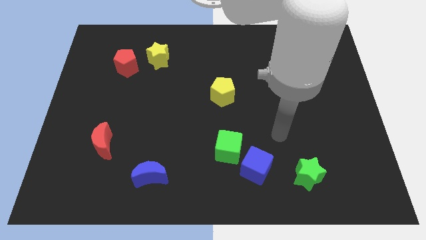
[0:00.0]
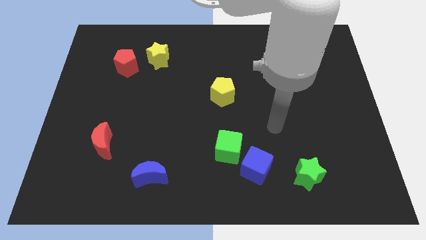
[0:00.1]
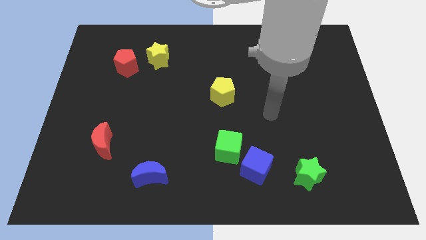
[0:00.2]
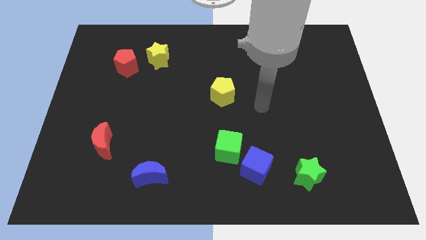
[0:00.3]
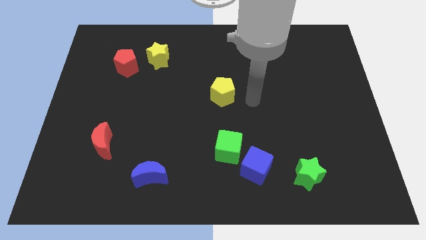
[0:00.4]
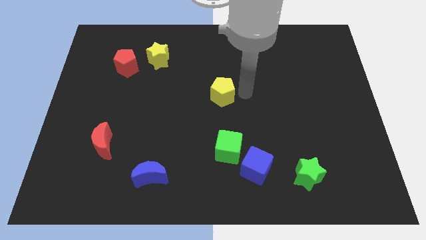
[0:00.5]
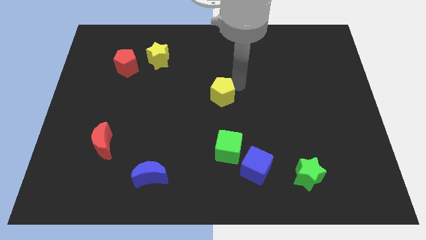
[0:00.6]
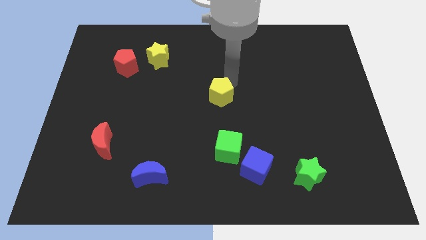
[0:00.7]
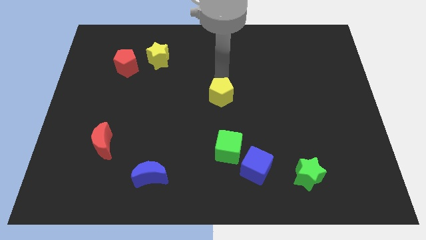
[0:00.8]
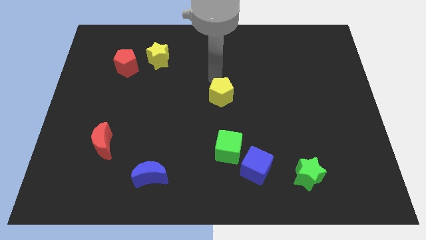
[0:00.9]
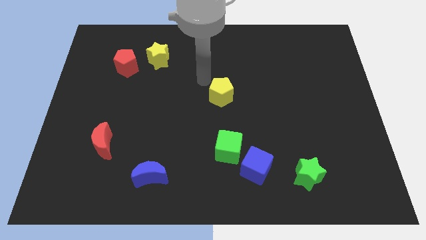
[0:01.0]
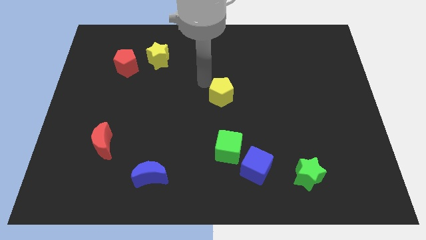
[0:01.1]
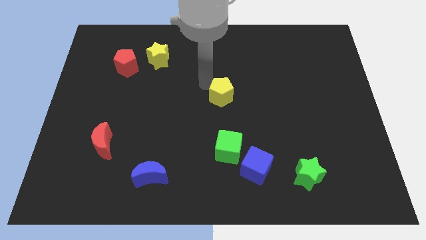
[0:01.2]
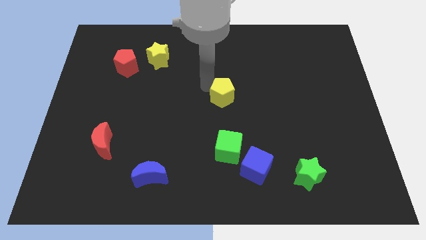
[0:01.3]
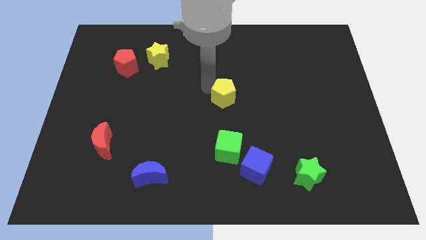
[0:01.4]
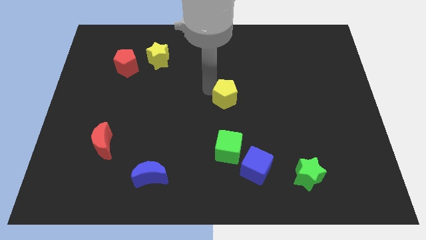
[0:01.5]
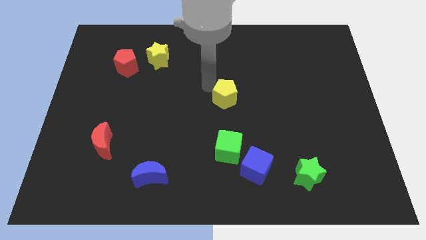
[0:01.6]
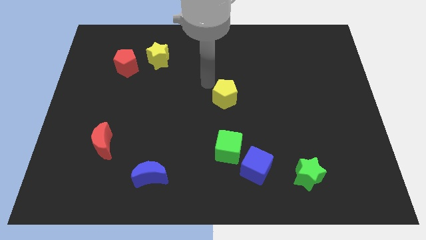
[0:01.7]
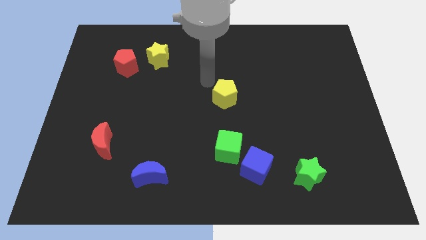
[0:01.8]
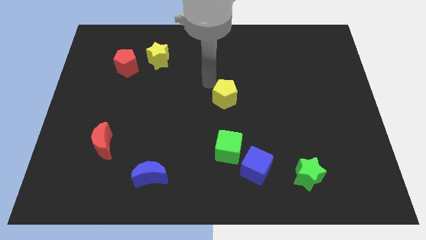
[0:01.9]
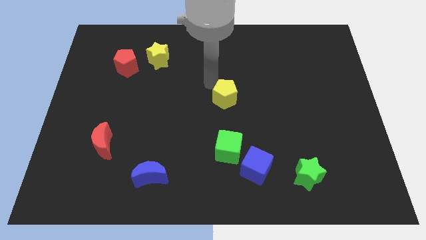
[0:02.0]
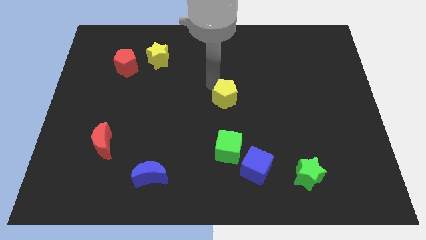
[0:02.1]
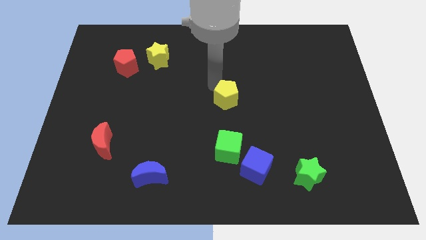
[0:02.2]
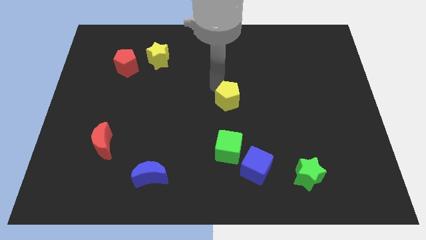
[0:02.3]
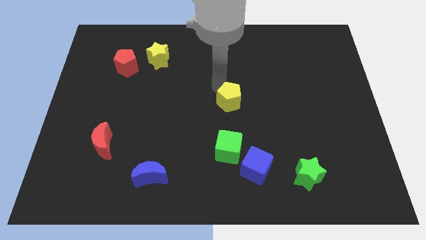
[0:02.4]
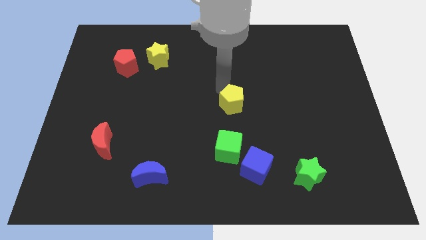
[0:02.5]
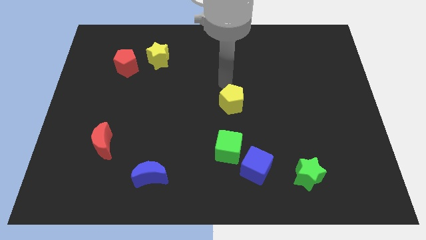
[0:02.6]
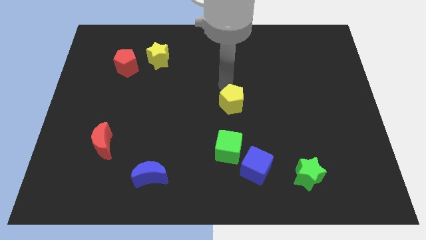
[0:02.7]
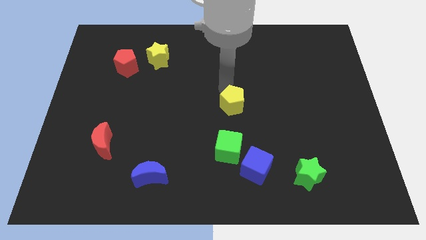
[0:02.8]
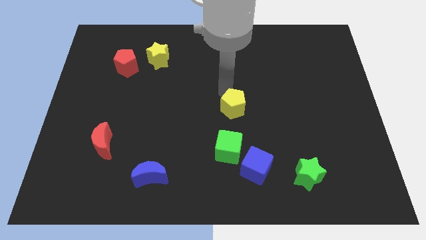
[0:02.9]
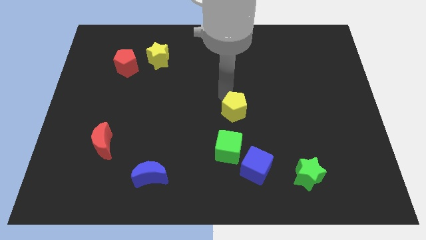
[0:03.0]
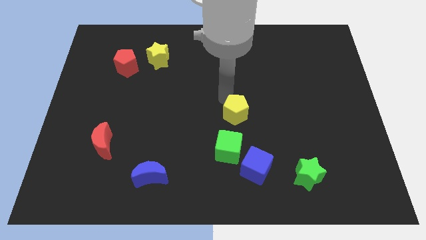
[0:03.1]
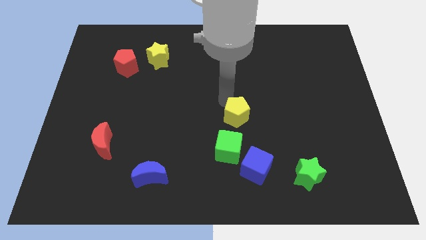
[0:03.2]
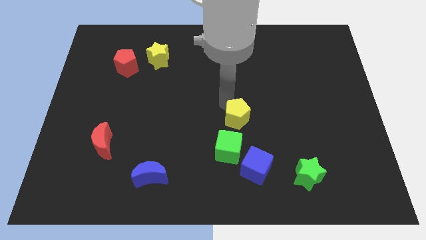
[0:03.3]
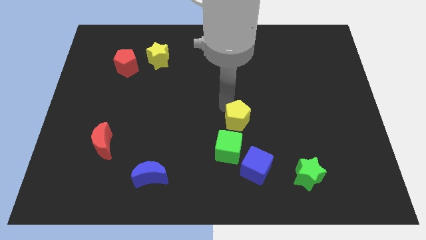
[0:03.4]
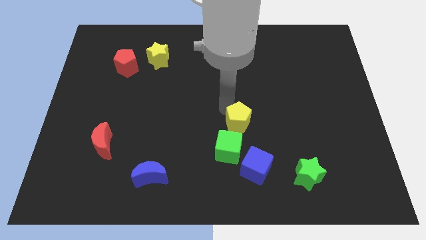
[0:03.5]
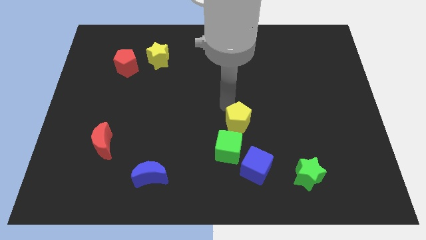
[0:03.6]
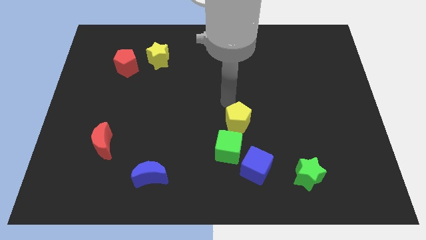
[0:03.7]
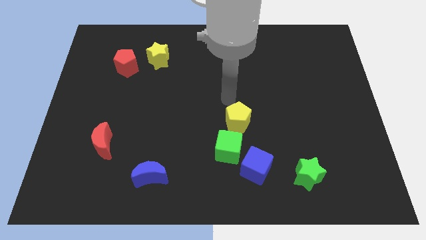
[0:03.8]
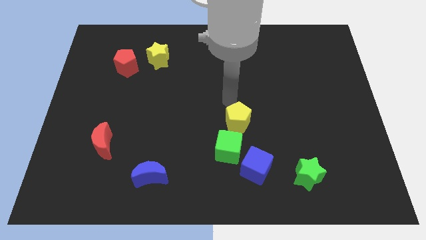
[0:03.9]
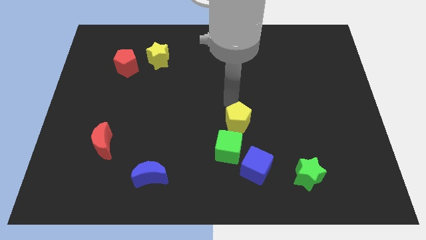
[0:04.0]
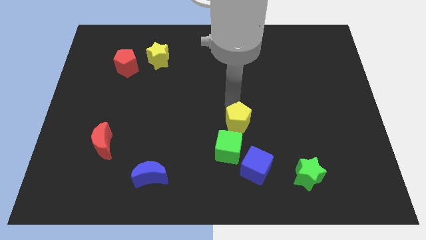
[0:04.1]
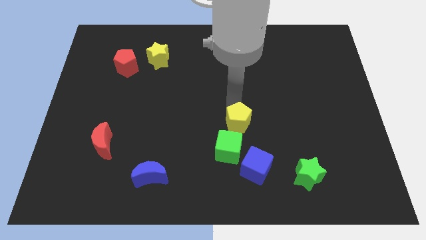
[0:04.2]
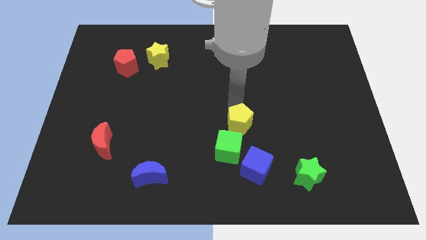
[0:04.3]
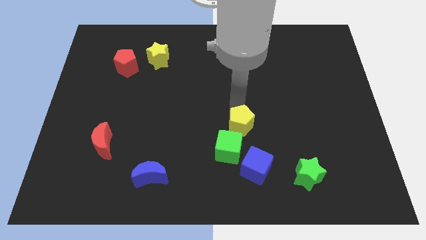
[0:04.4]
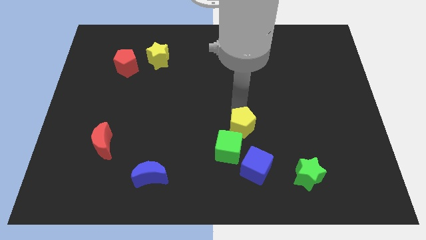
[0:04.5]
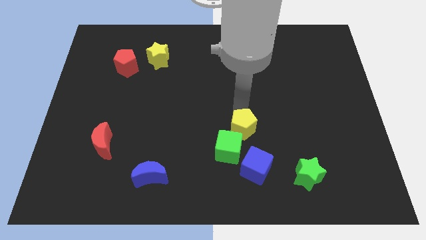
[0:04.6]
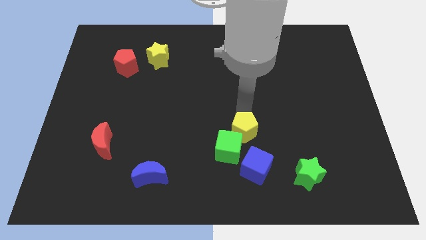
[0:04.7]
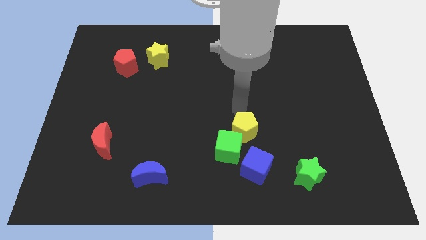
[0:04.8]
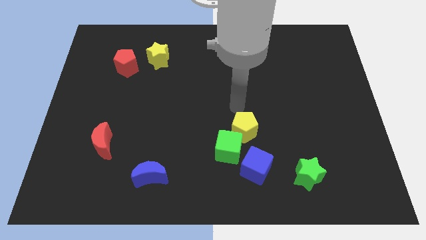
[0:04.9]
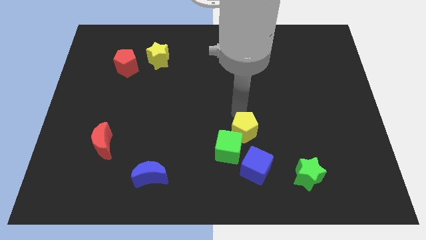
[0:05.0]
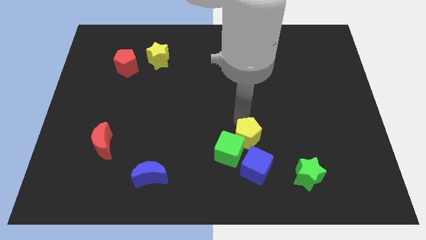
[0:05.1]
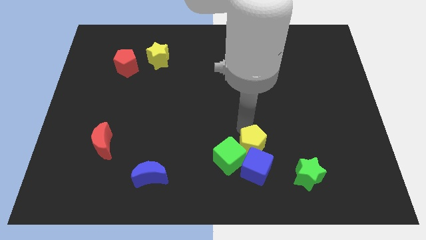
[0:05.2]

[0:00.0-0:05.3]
put the yellow pentagon towards the blue cube

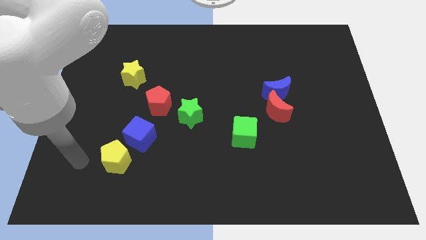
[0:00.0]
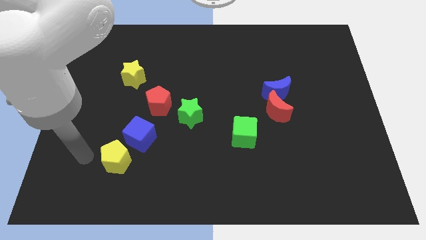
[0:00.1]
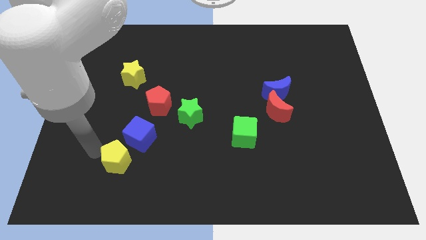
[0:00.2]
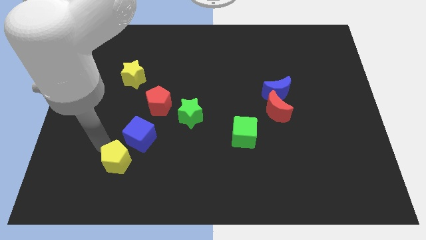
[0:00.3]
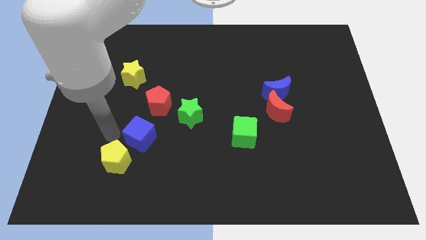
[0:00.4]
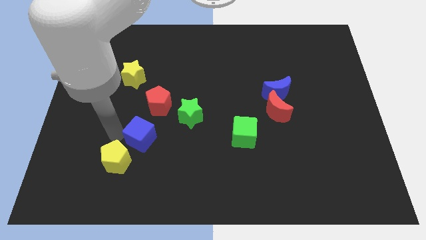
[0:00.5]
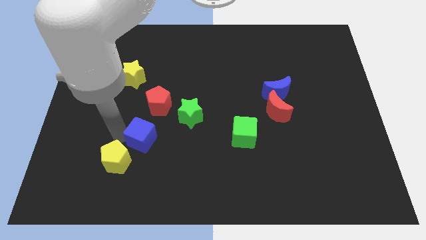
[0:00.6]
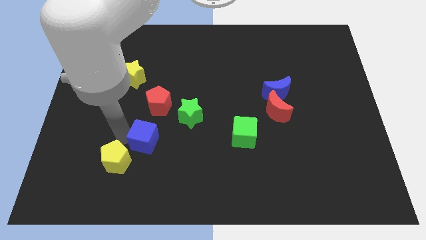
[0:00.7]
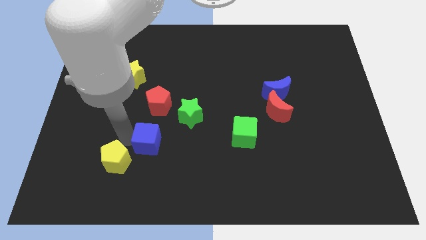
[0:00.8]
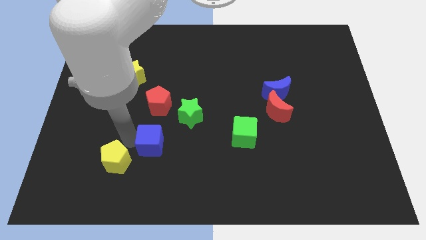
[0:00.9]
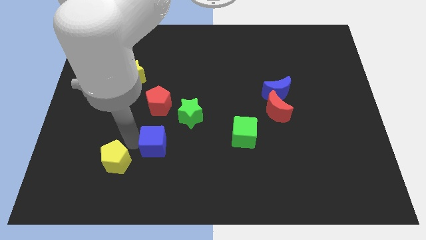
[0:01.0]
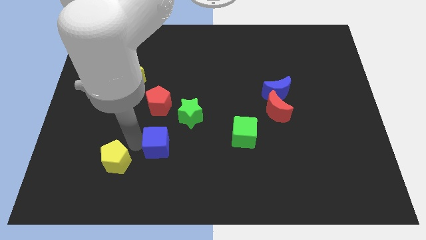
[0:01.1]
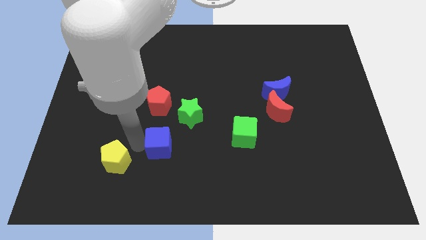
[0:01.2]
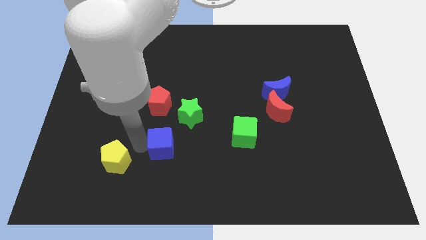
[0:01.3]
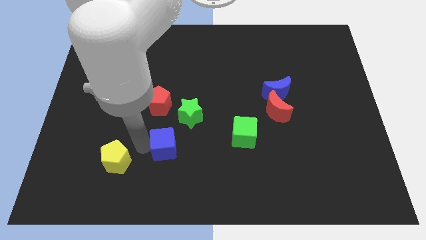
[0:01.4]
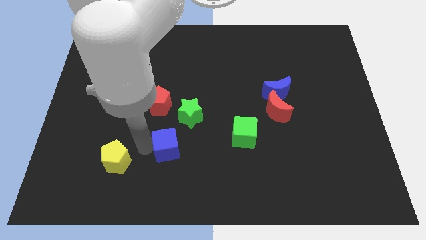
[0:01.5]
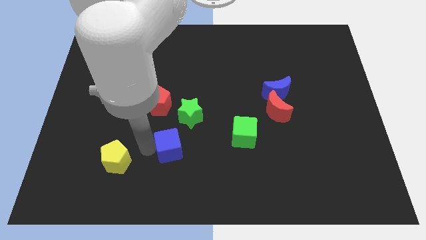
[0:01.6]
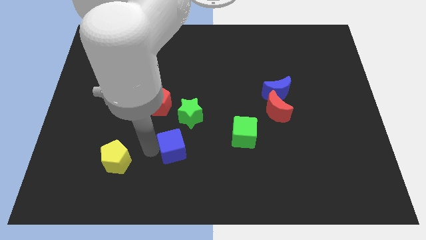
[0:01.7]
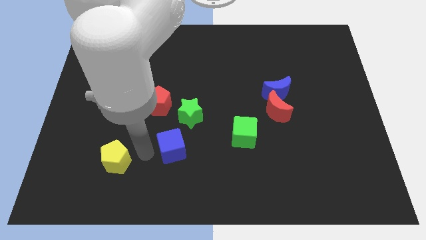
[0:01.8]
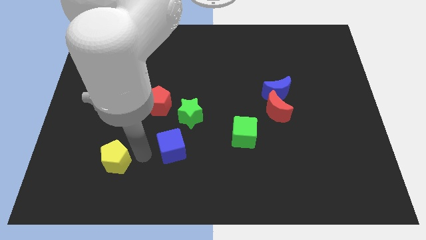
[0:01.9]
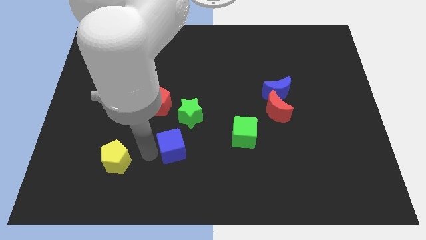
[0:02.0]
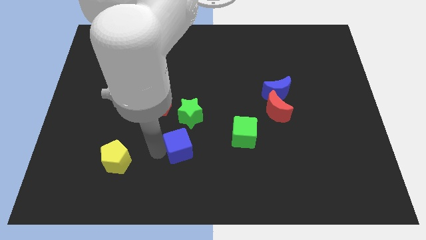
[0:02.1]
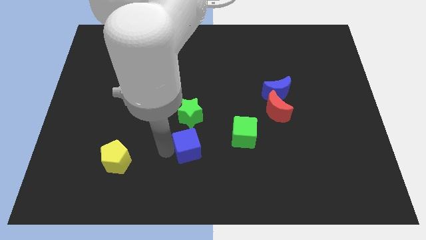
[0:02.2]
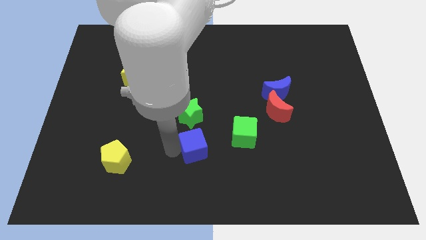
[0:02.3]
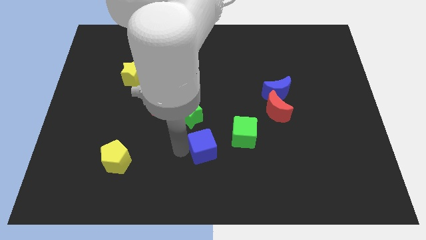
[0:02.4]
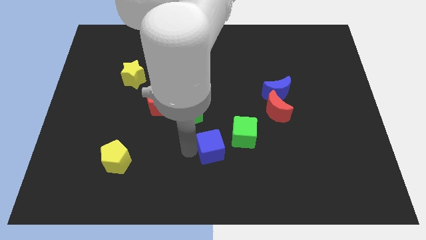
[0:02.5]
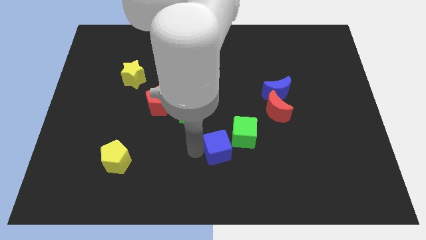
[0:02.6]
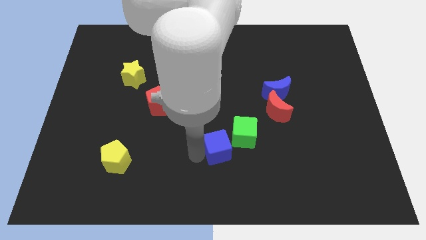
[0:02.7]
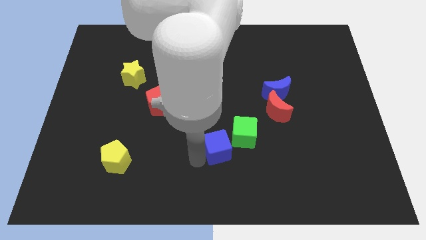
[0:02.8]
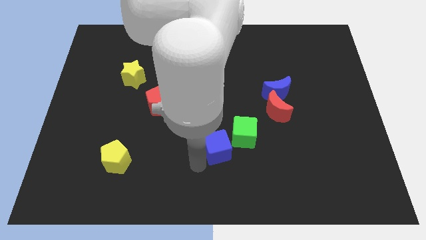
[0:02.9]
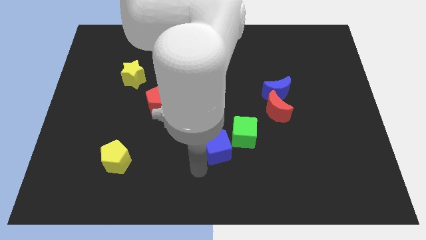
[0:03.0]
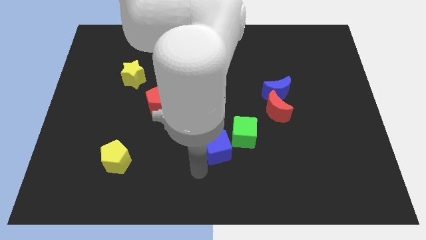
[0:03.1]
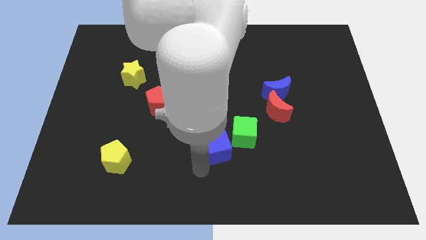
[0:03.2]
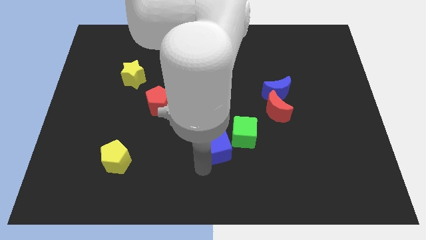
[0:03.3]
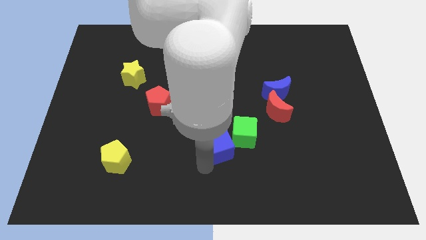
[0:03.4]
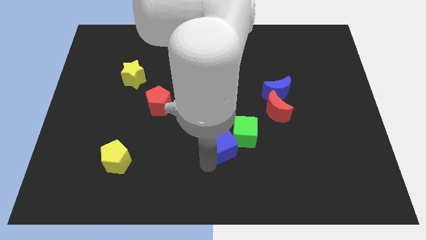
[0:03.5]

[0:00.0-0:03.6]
put the blue cube towards the green cube
